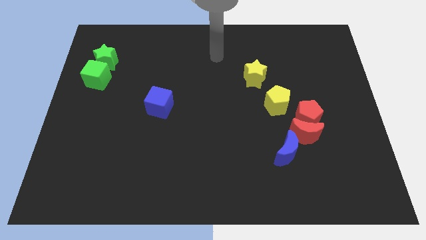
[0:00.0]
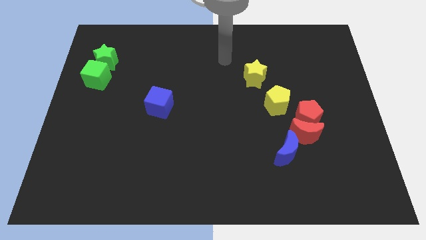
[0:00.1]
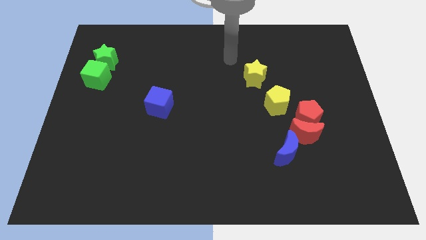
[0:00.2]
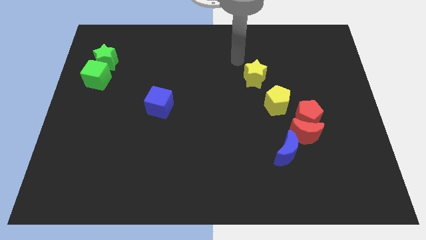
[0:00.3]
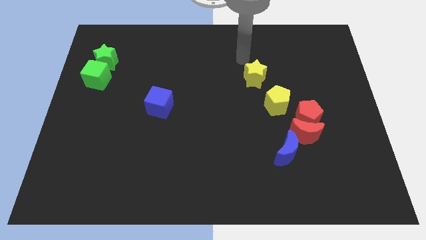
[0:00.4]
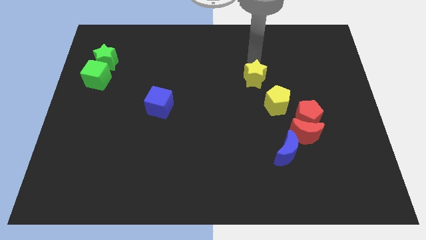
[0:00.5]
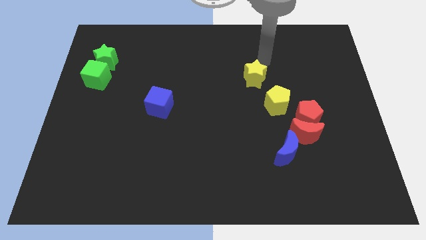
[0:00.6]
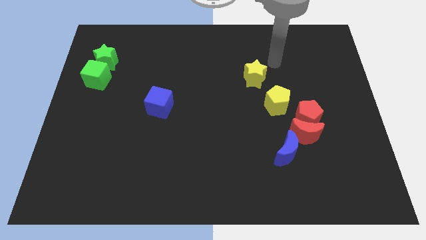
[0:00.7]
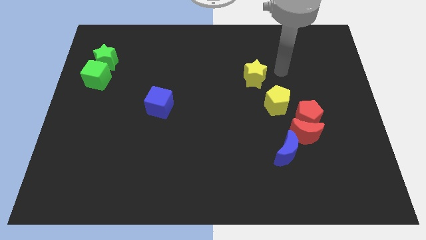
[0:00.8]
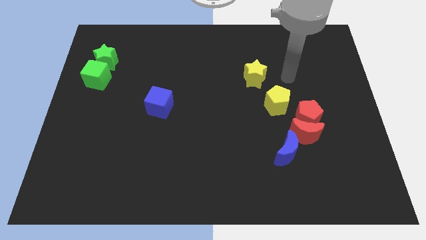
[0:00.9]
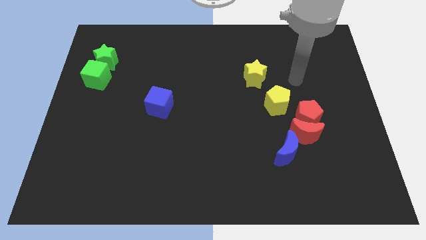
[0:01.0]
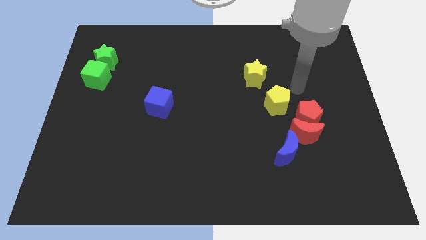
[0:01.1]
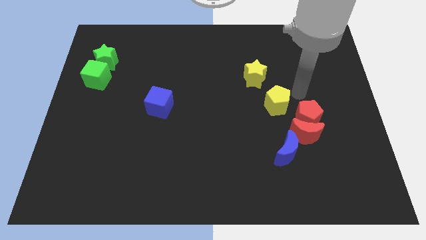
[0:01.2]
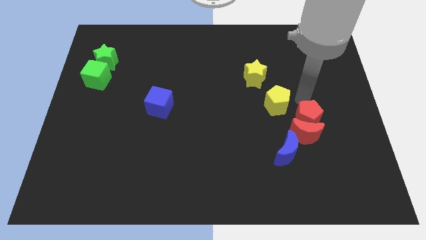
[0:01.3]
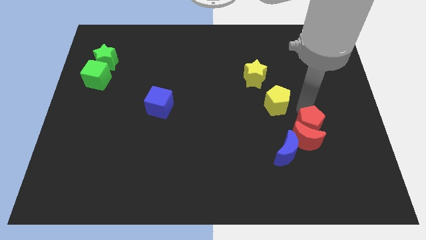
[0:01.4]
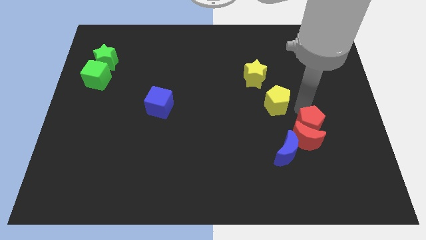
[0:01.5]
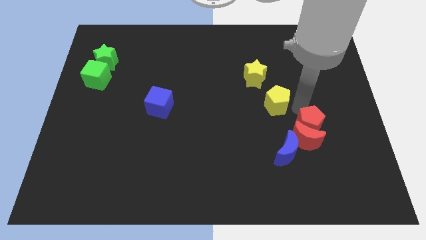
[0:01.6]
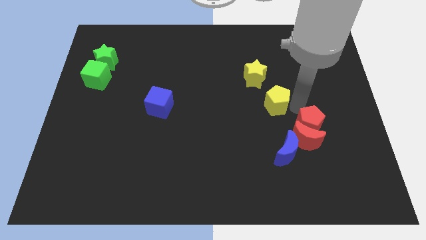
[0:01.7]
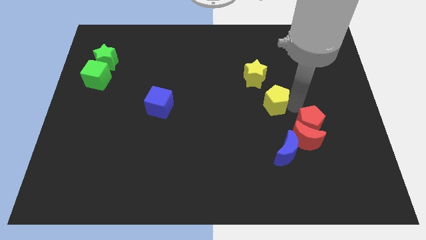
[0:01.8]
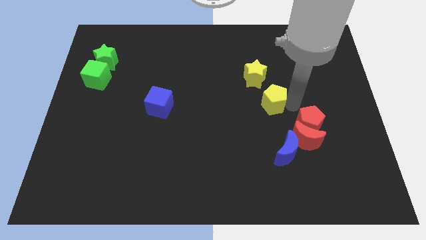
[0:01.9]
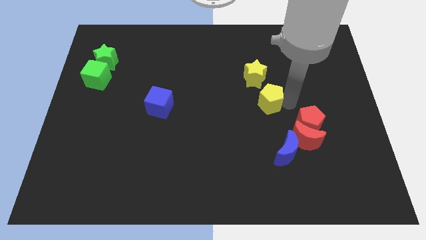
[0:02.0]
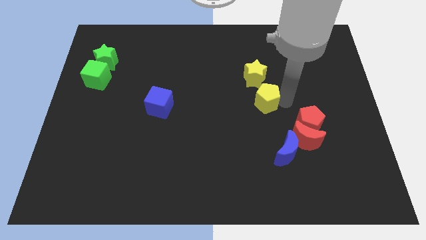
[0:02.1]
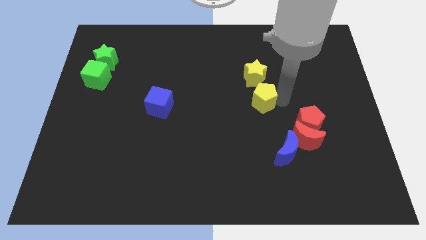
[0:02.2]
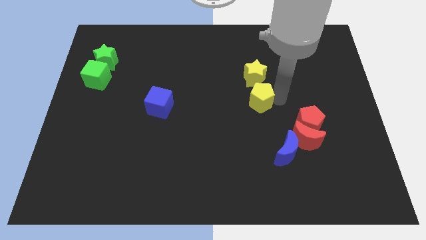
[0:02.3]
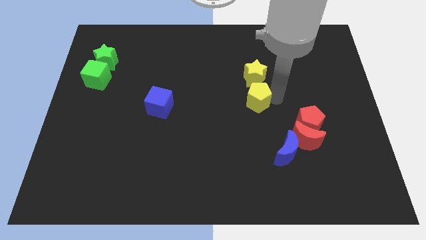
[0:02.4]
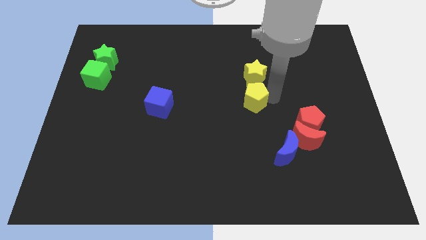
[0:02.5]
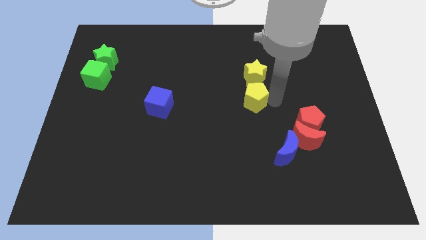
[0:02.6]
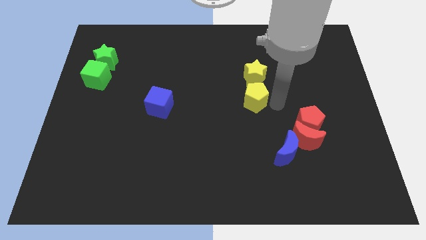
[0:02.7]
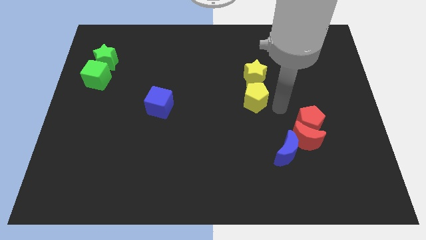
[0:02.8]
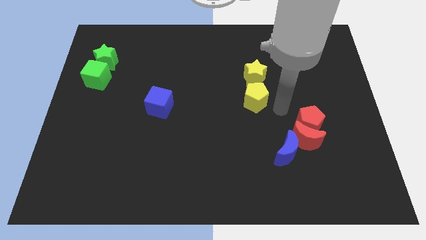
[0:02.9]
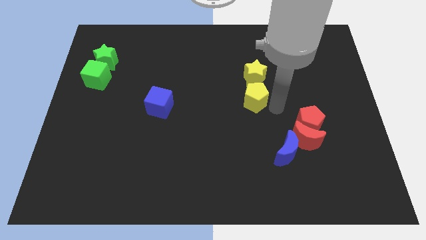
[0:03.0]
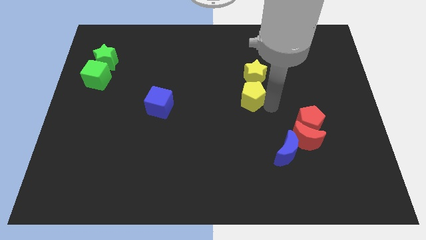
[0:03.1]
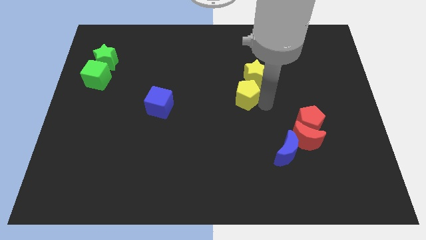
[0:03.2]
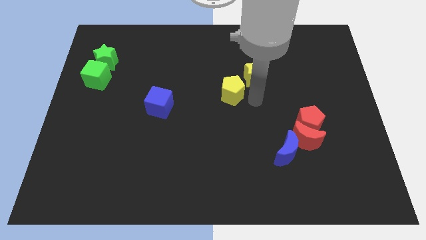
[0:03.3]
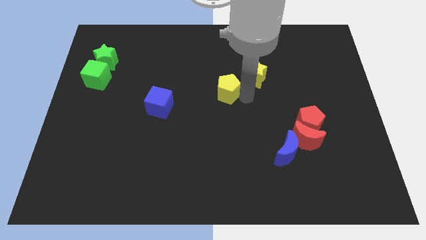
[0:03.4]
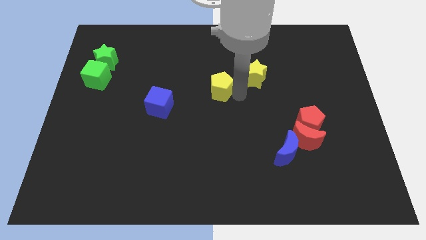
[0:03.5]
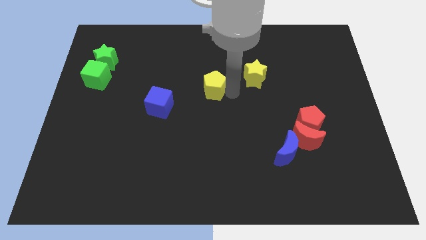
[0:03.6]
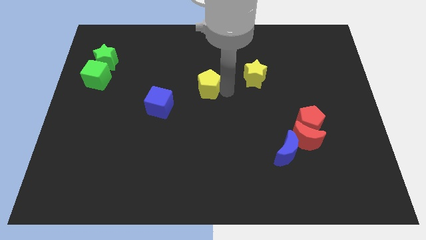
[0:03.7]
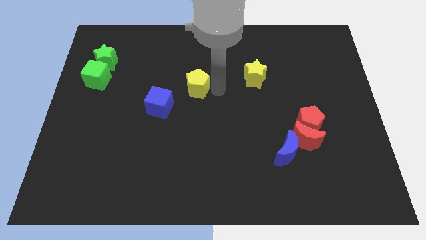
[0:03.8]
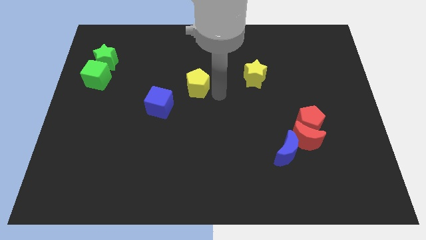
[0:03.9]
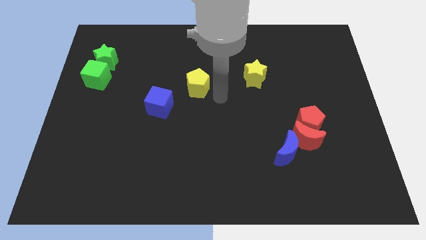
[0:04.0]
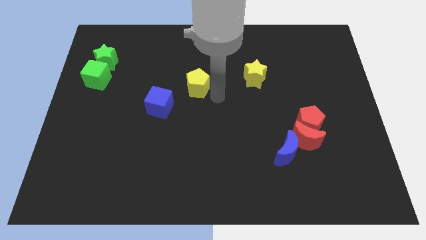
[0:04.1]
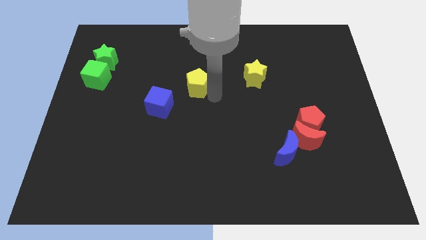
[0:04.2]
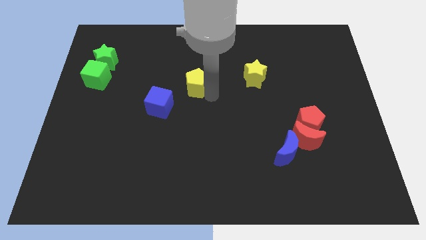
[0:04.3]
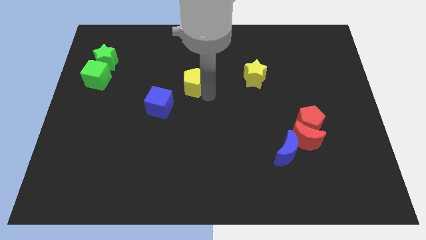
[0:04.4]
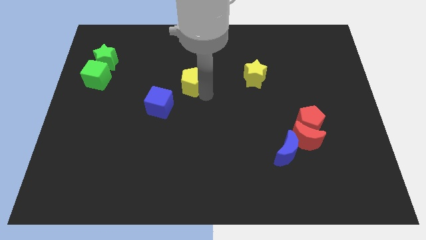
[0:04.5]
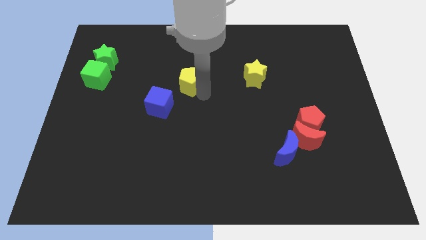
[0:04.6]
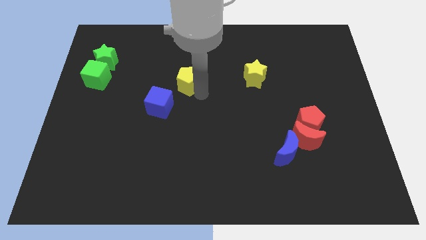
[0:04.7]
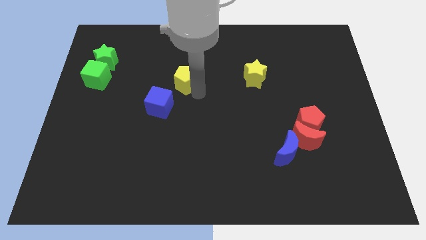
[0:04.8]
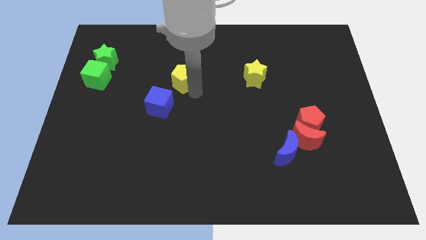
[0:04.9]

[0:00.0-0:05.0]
put the yellow pentagon to the top of the blue cube

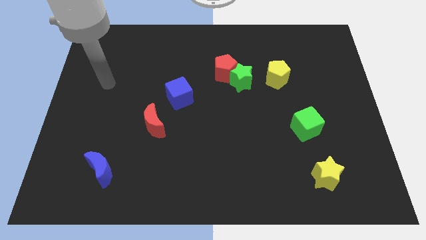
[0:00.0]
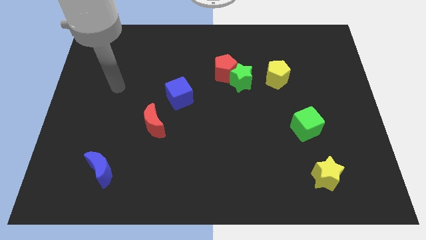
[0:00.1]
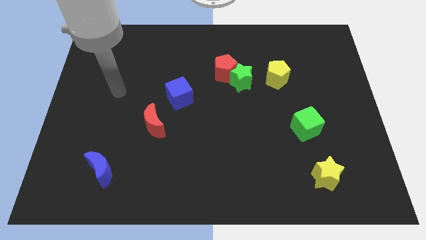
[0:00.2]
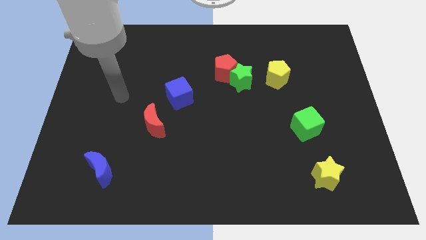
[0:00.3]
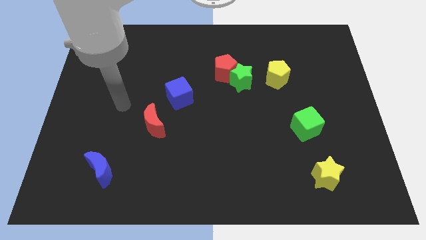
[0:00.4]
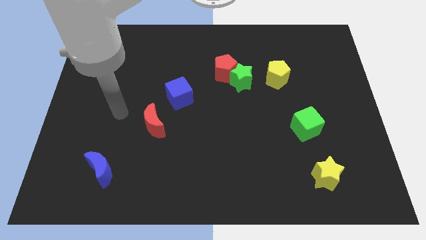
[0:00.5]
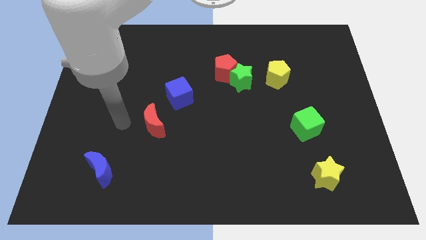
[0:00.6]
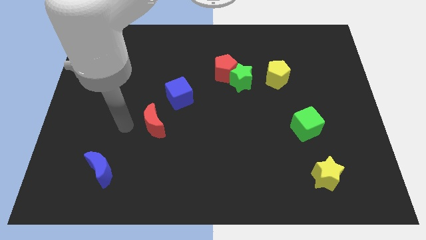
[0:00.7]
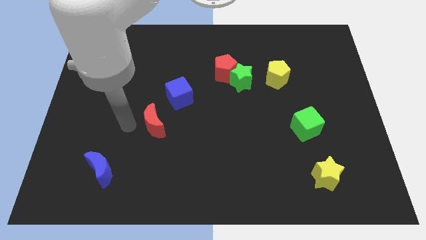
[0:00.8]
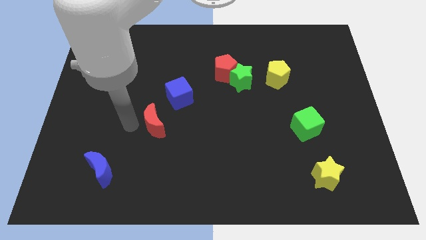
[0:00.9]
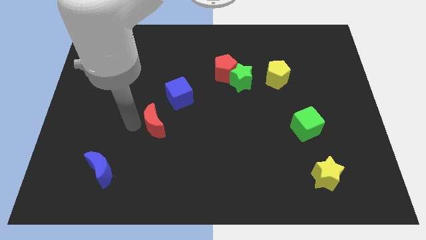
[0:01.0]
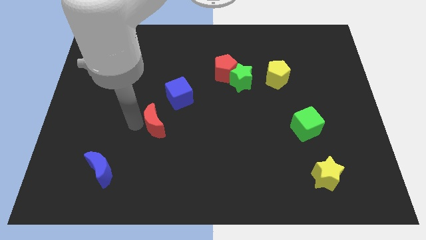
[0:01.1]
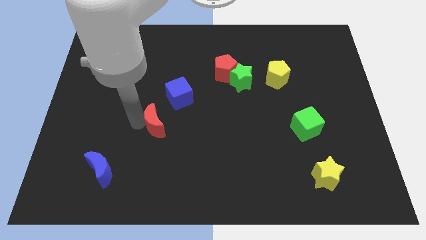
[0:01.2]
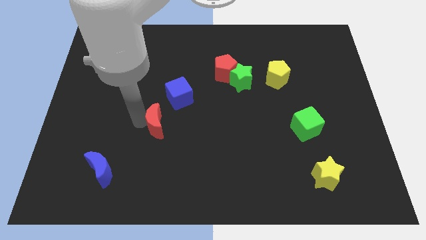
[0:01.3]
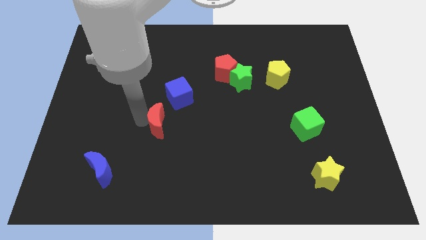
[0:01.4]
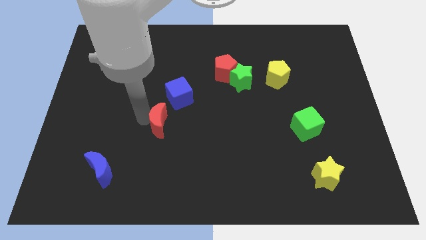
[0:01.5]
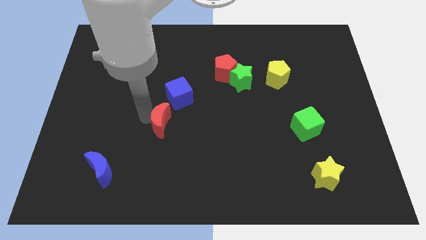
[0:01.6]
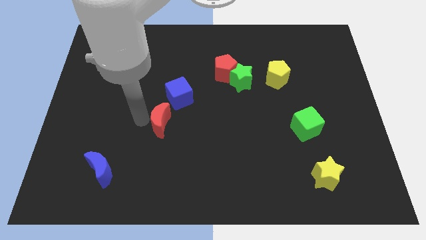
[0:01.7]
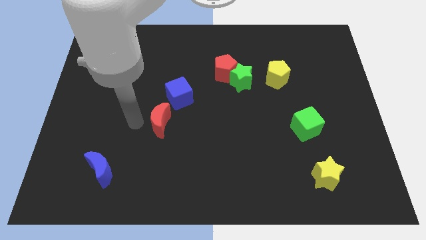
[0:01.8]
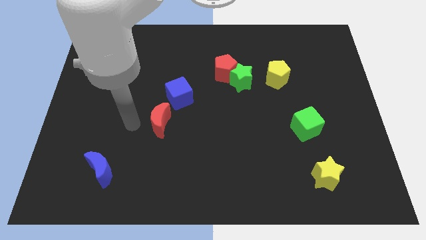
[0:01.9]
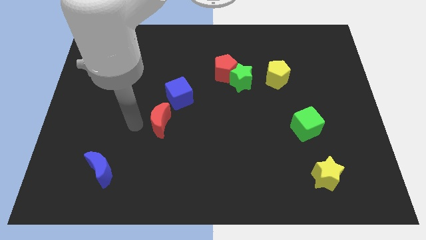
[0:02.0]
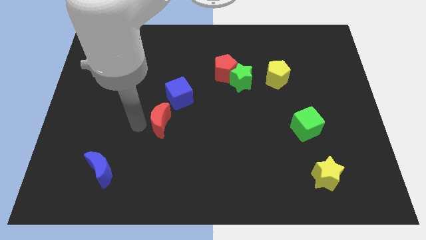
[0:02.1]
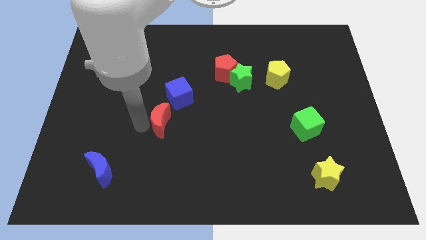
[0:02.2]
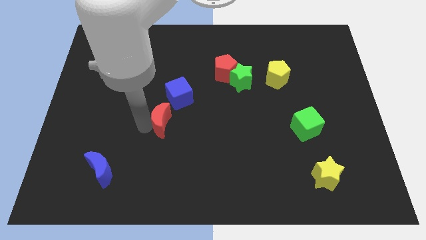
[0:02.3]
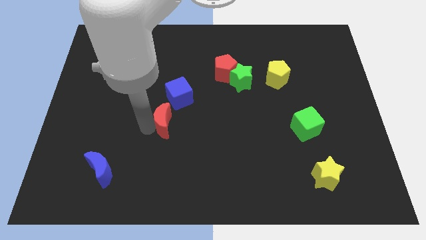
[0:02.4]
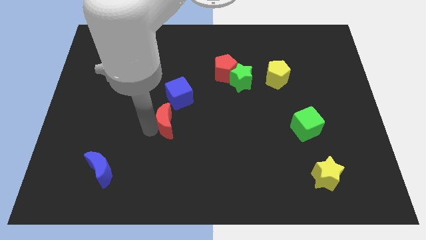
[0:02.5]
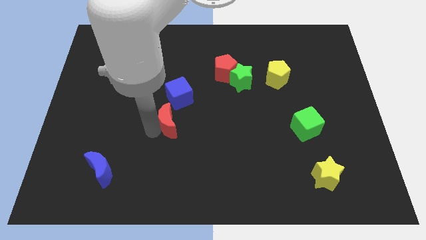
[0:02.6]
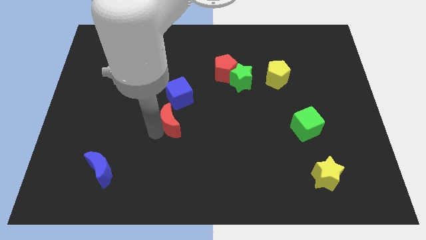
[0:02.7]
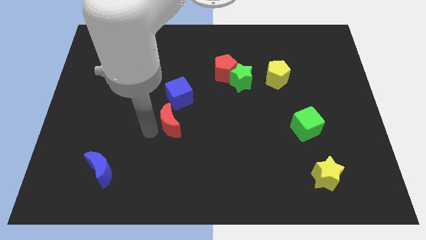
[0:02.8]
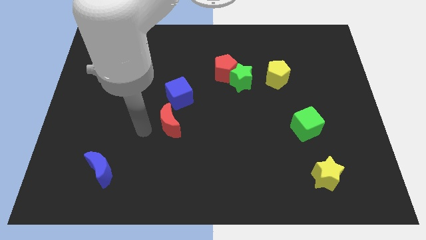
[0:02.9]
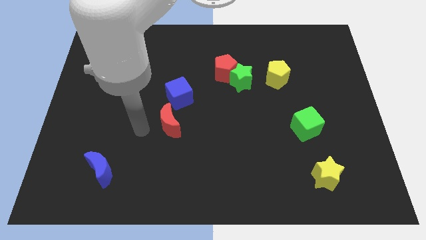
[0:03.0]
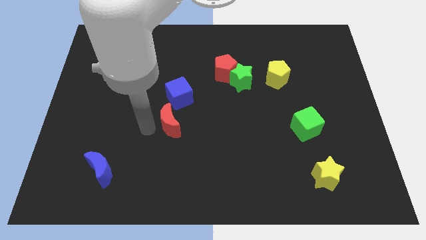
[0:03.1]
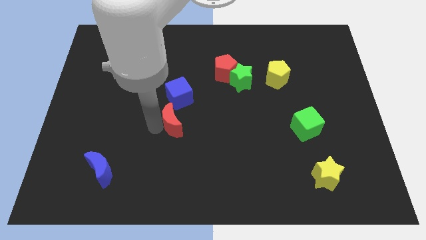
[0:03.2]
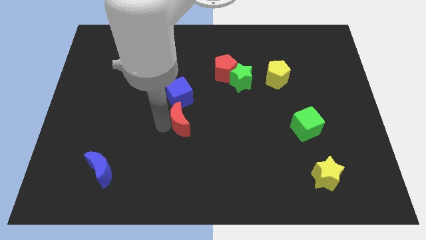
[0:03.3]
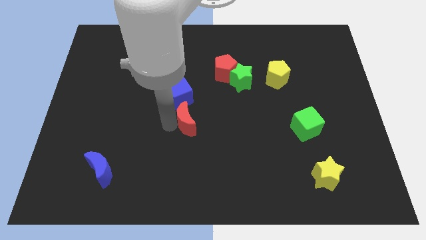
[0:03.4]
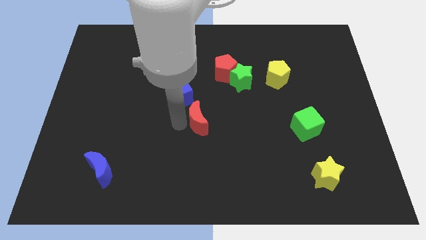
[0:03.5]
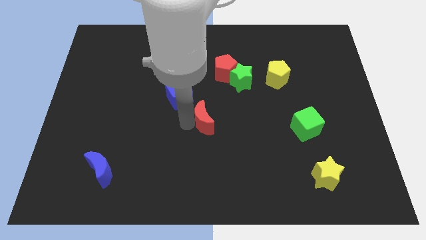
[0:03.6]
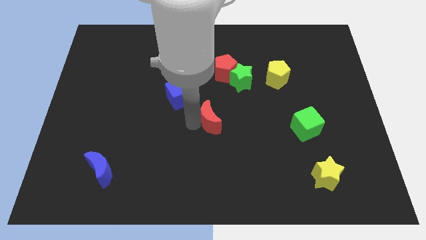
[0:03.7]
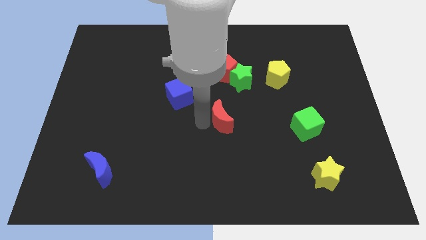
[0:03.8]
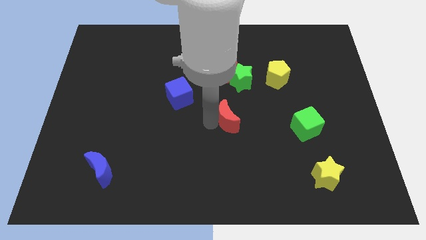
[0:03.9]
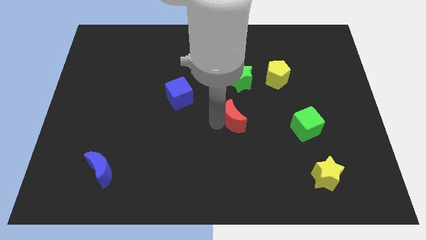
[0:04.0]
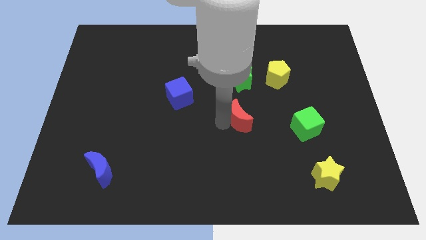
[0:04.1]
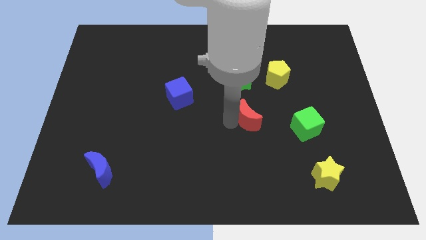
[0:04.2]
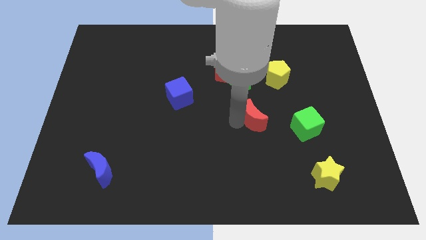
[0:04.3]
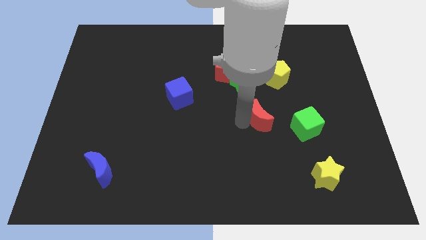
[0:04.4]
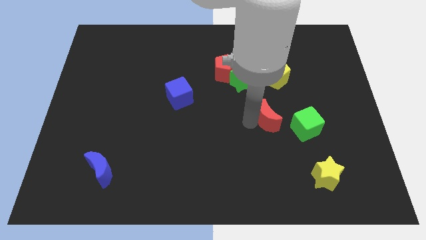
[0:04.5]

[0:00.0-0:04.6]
put the red moon diagonally up and to the left of the green cube
